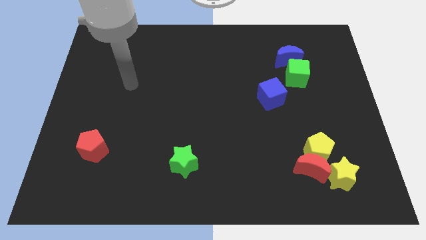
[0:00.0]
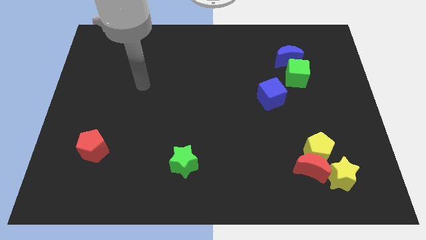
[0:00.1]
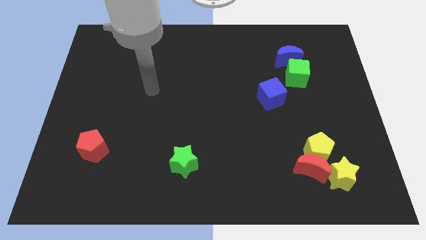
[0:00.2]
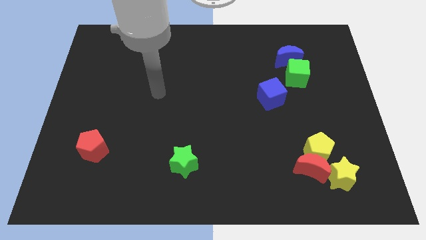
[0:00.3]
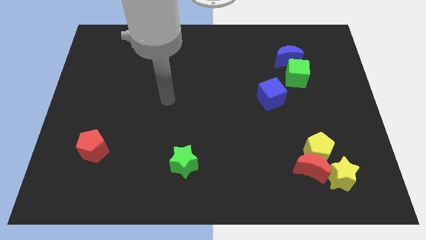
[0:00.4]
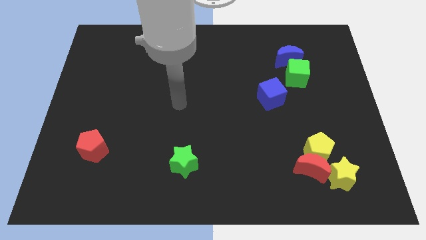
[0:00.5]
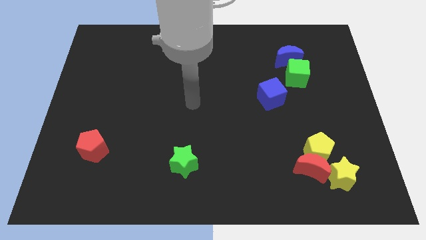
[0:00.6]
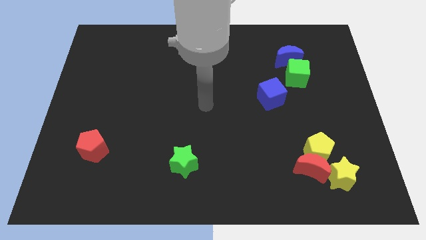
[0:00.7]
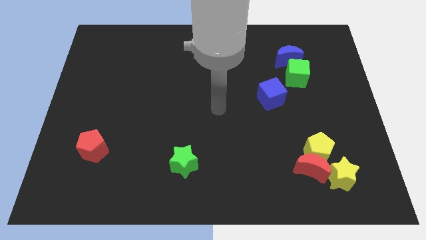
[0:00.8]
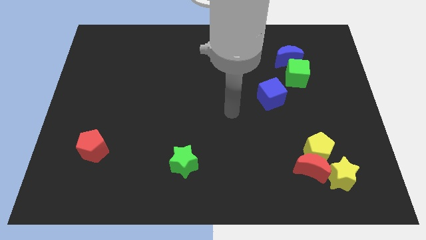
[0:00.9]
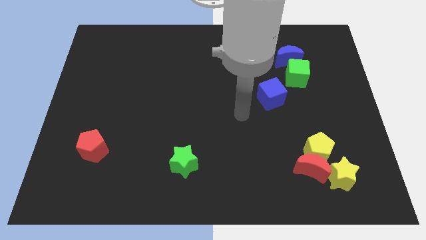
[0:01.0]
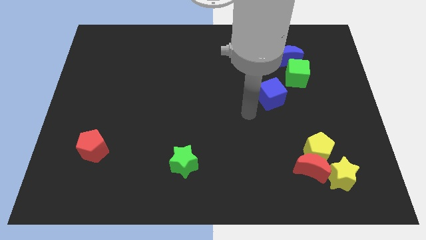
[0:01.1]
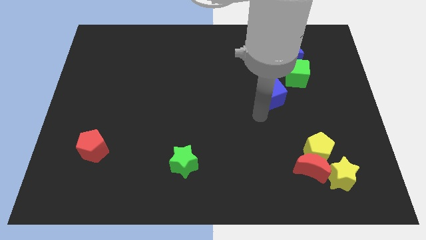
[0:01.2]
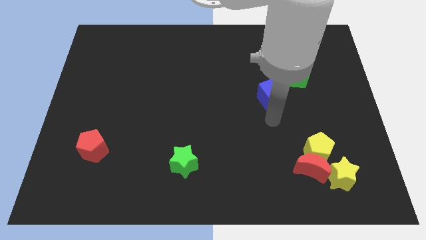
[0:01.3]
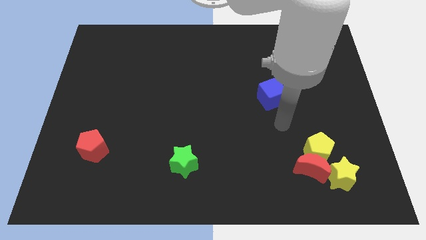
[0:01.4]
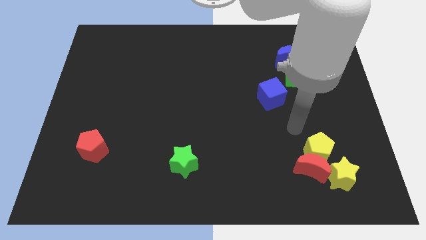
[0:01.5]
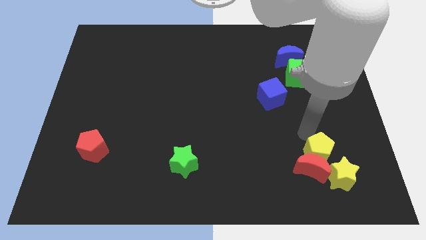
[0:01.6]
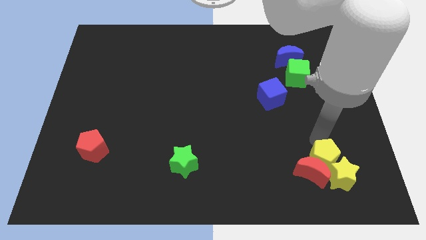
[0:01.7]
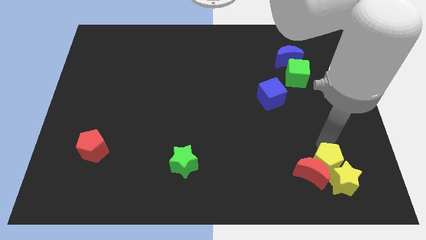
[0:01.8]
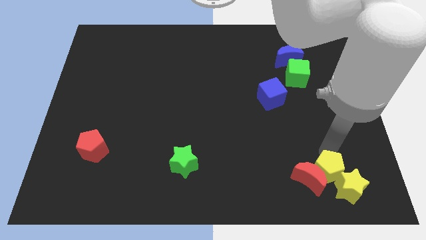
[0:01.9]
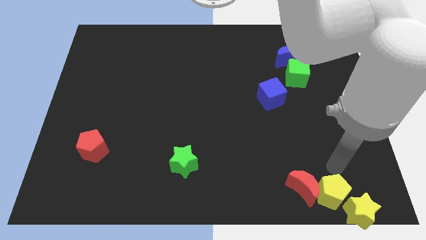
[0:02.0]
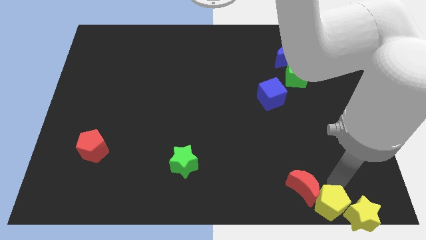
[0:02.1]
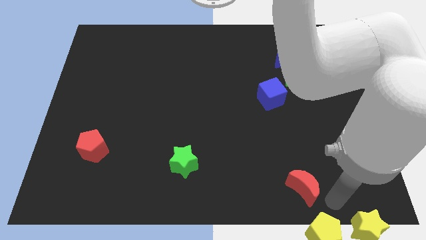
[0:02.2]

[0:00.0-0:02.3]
pull the red moon apart from the yellow pentagon and yellow star

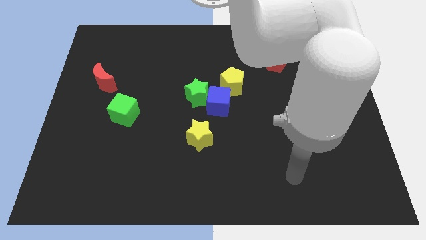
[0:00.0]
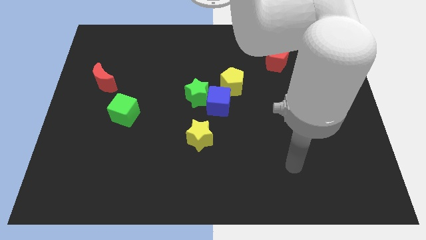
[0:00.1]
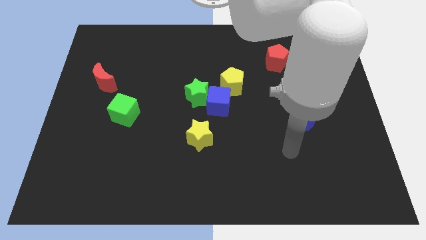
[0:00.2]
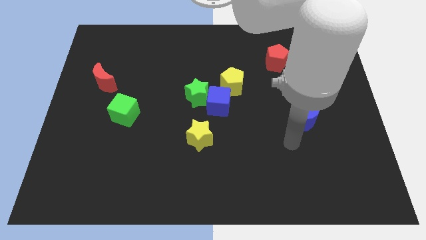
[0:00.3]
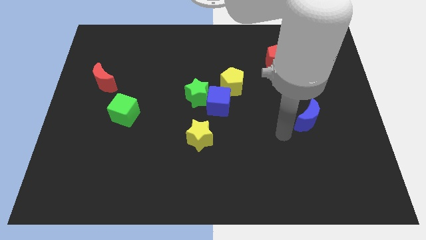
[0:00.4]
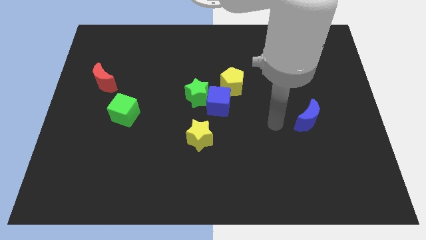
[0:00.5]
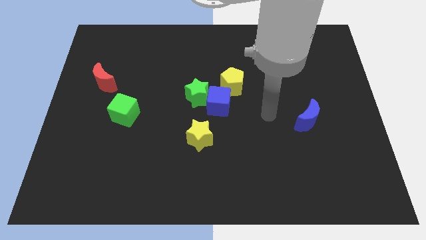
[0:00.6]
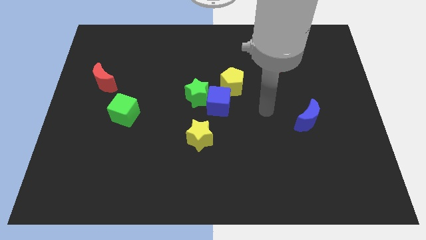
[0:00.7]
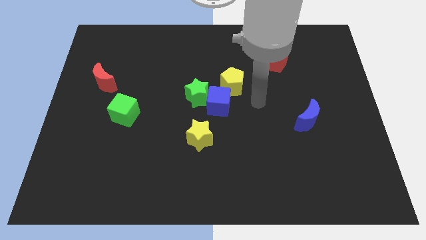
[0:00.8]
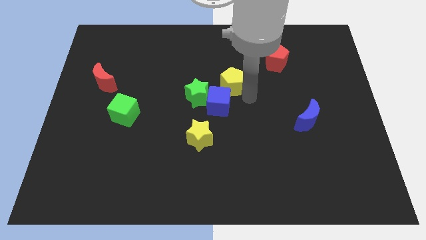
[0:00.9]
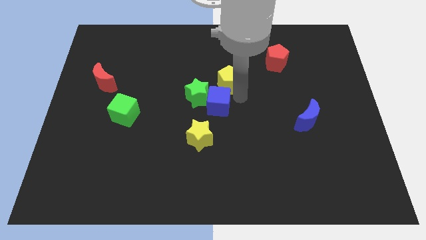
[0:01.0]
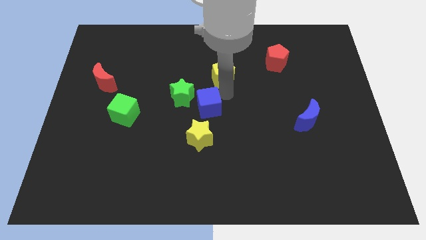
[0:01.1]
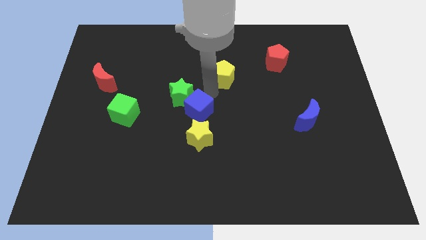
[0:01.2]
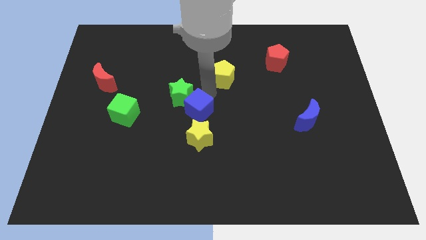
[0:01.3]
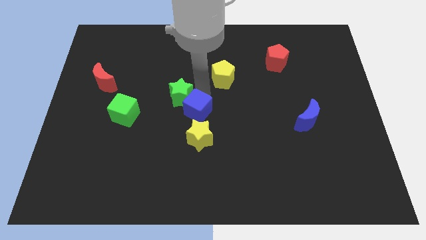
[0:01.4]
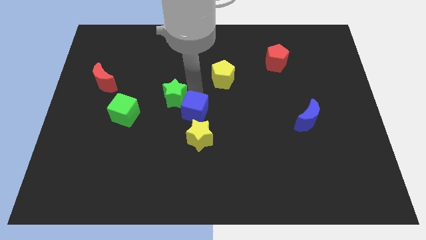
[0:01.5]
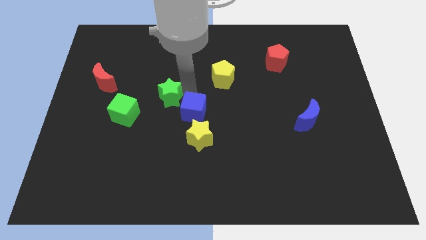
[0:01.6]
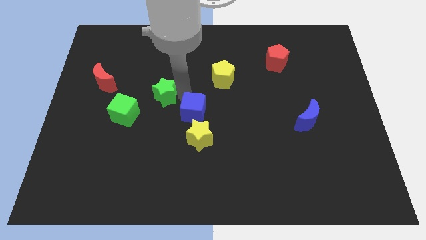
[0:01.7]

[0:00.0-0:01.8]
pull the green star apart from the blue cube and yellow pentagon

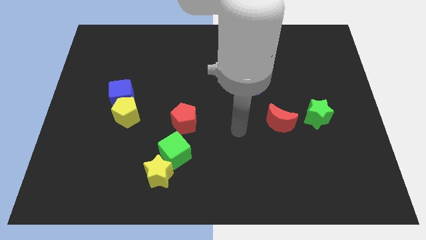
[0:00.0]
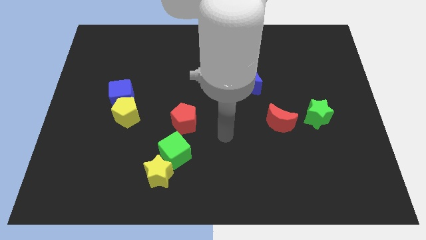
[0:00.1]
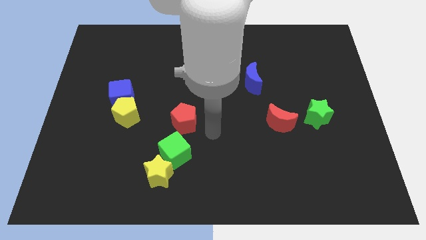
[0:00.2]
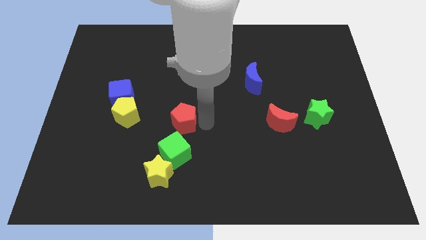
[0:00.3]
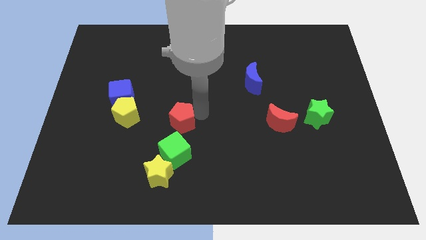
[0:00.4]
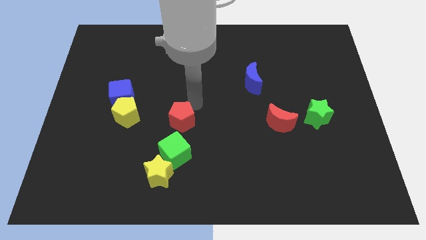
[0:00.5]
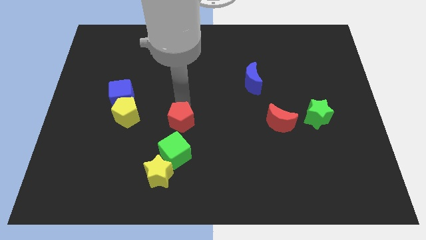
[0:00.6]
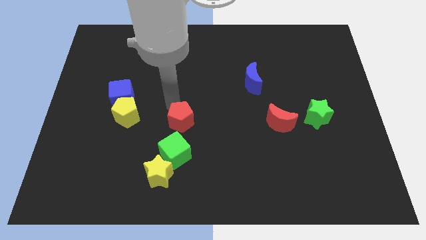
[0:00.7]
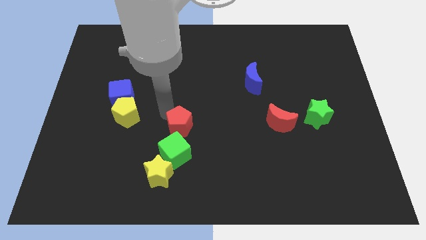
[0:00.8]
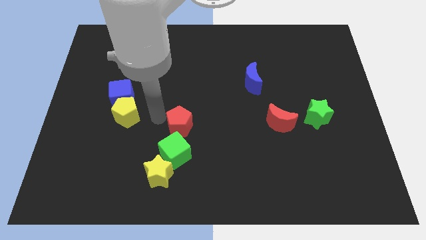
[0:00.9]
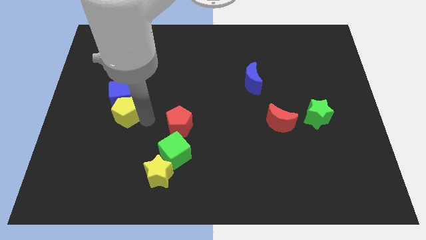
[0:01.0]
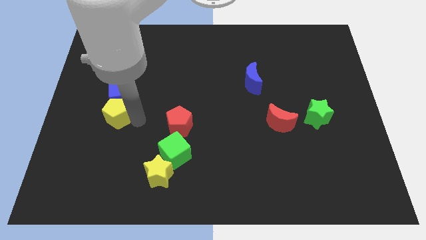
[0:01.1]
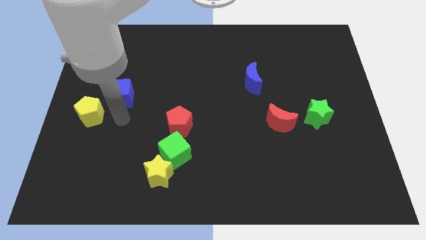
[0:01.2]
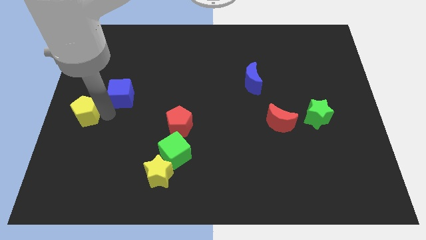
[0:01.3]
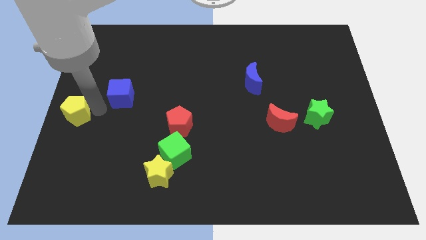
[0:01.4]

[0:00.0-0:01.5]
separate the blue cube from the yellow pentagon

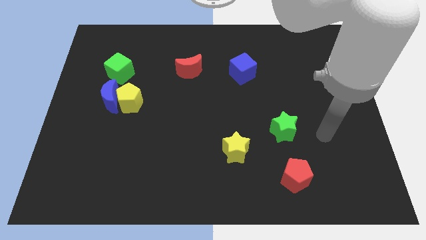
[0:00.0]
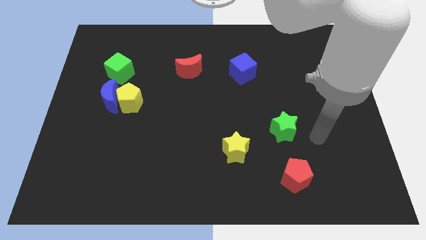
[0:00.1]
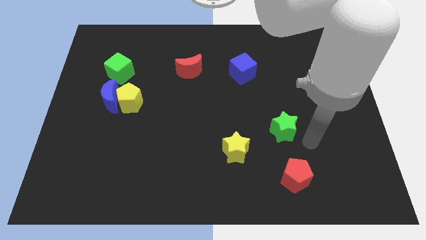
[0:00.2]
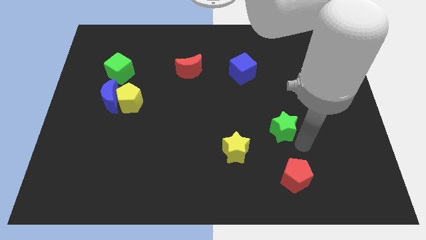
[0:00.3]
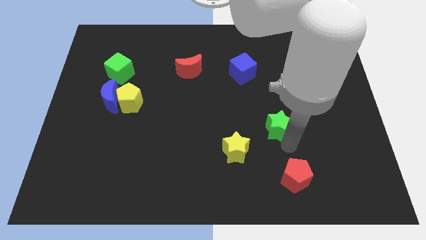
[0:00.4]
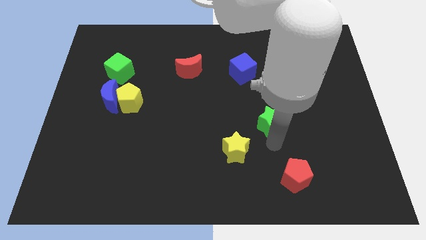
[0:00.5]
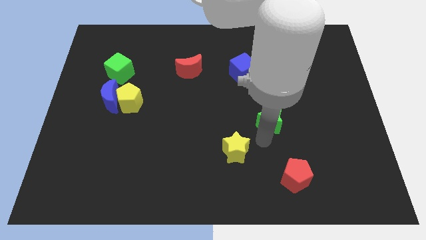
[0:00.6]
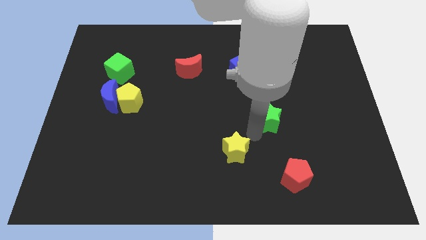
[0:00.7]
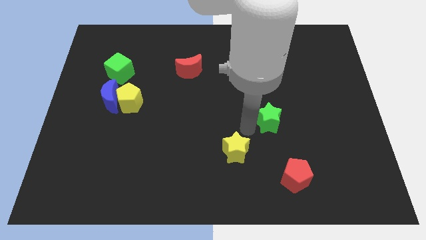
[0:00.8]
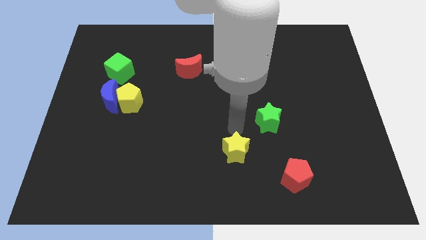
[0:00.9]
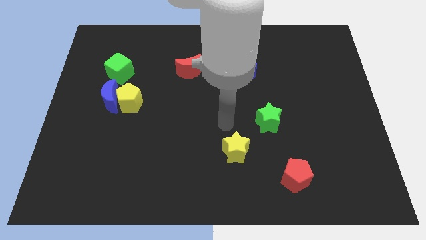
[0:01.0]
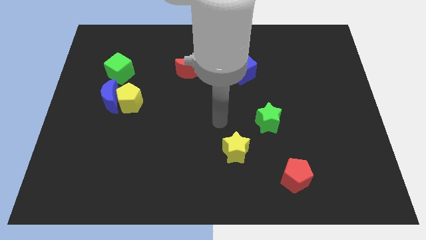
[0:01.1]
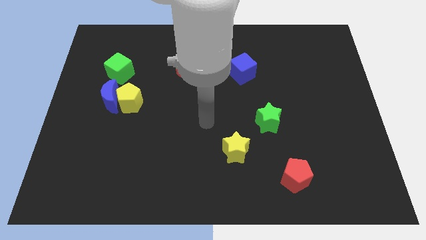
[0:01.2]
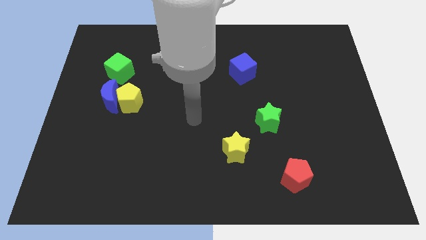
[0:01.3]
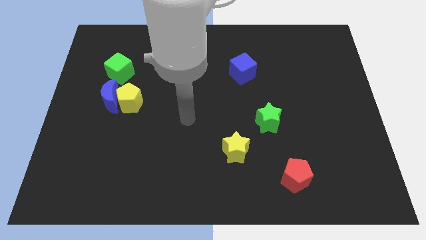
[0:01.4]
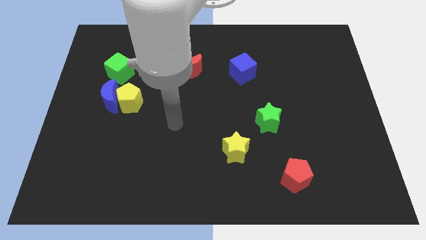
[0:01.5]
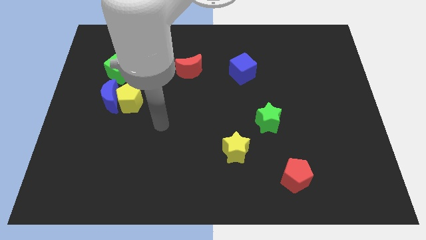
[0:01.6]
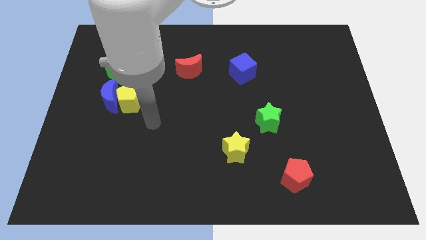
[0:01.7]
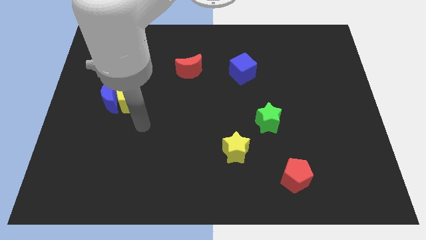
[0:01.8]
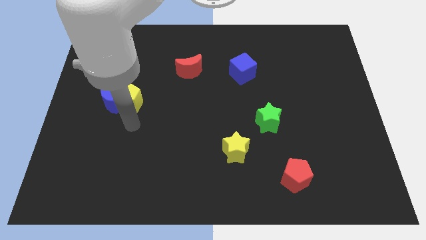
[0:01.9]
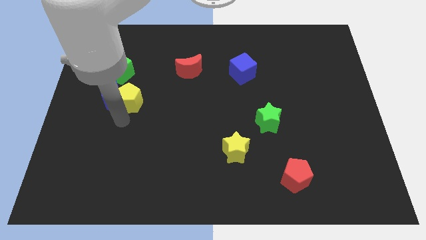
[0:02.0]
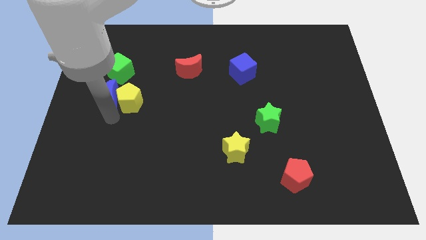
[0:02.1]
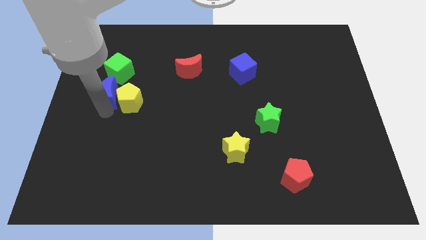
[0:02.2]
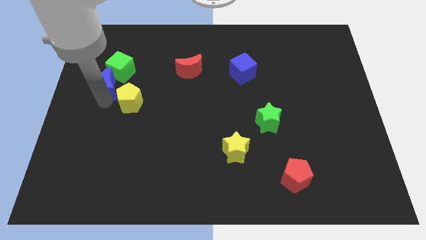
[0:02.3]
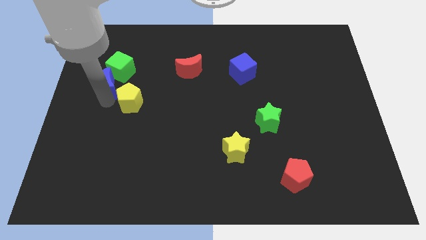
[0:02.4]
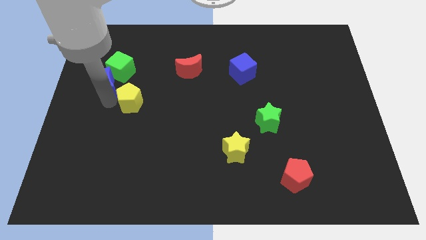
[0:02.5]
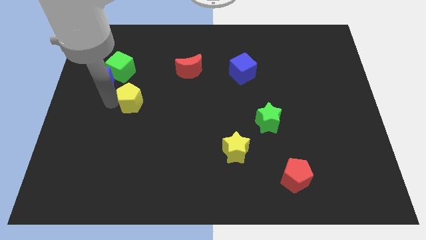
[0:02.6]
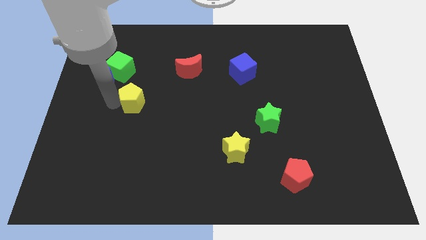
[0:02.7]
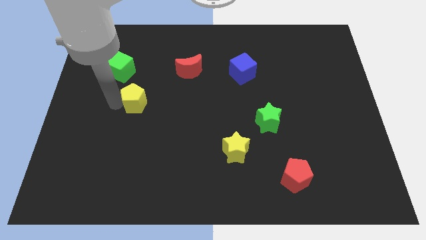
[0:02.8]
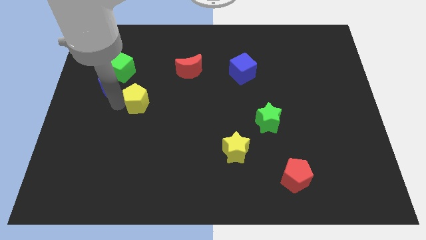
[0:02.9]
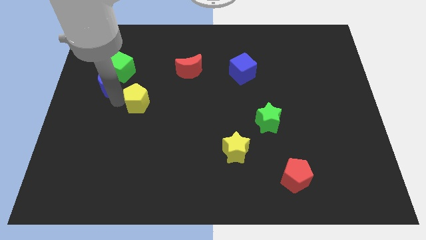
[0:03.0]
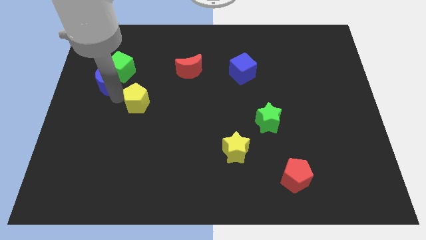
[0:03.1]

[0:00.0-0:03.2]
pull the yellow pentagon apart from the blue moon

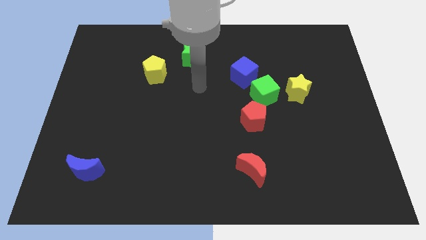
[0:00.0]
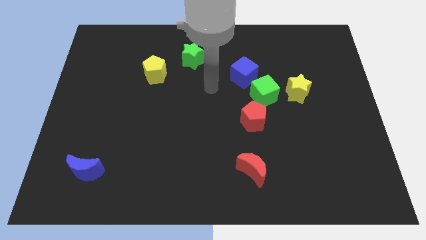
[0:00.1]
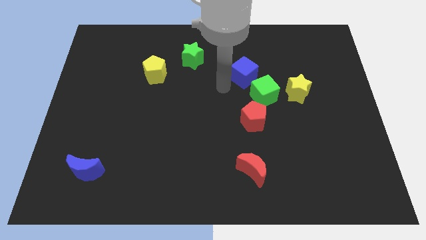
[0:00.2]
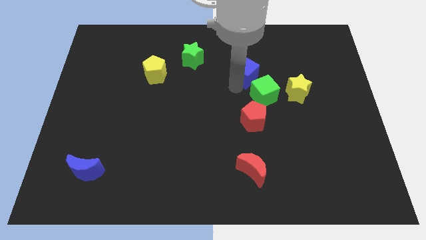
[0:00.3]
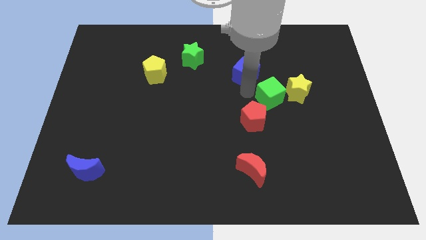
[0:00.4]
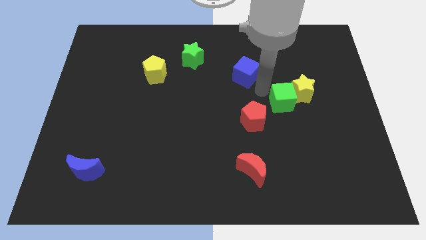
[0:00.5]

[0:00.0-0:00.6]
move the blue cube away from the green cube
